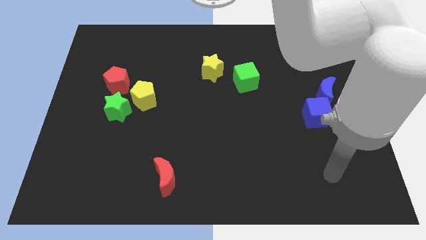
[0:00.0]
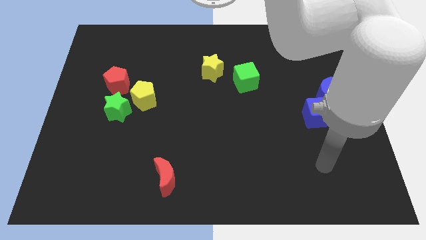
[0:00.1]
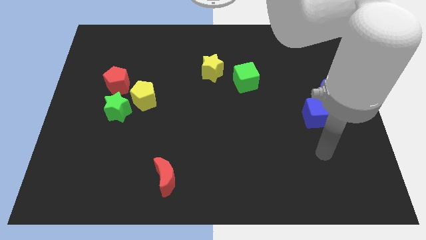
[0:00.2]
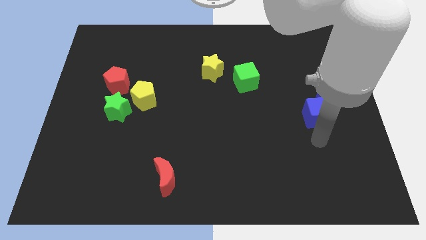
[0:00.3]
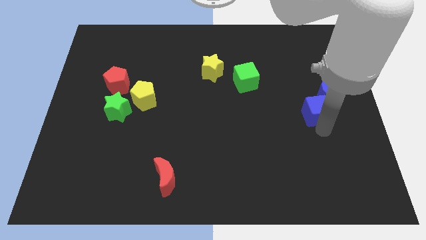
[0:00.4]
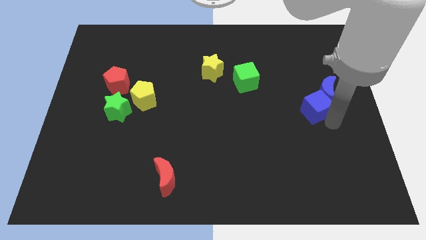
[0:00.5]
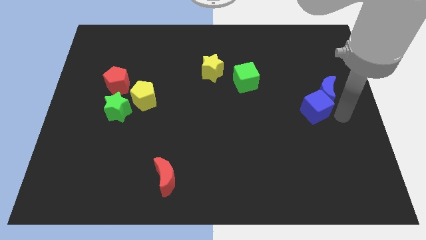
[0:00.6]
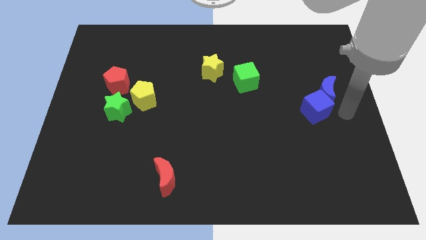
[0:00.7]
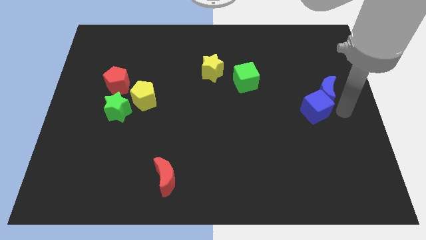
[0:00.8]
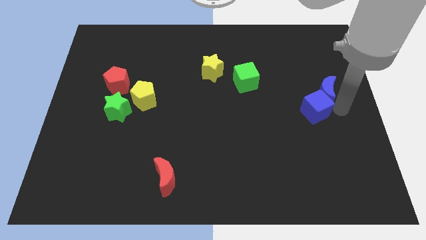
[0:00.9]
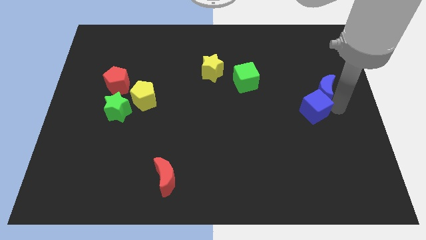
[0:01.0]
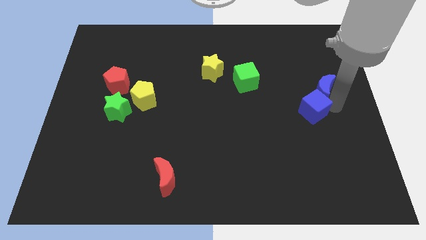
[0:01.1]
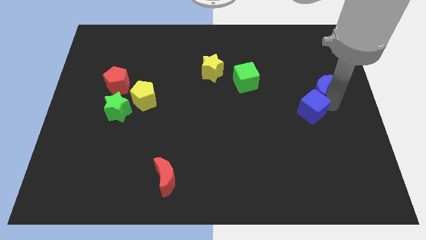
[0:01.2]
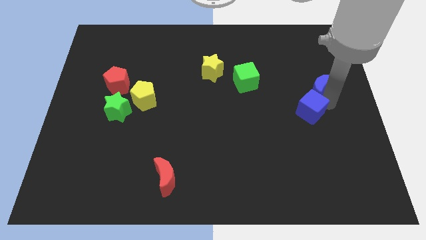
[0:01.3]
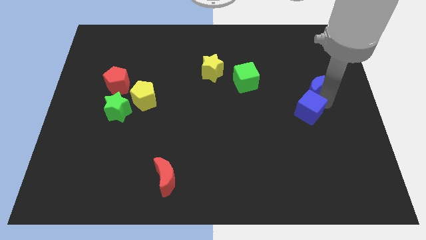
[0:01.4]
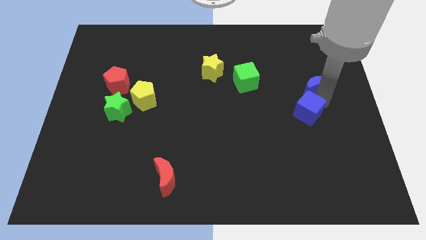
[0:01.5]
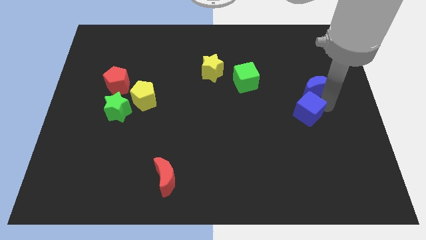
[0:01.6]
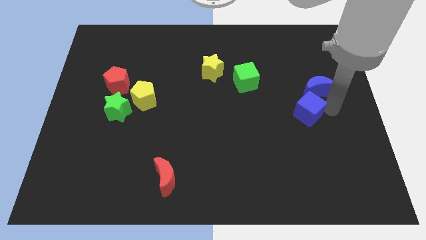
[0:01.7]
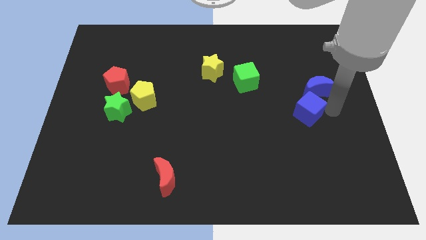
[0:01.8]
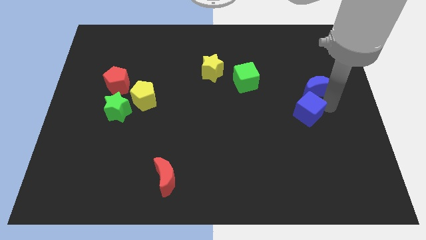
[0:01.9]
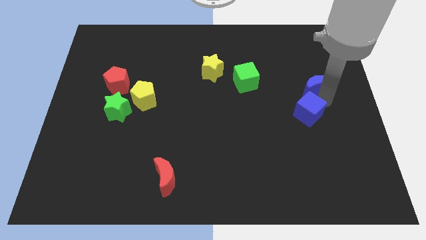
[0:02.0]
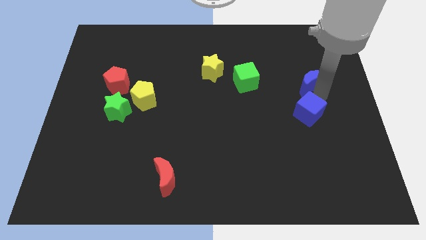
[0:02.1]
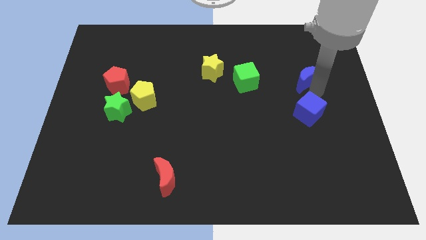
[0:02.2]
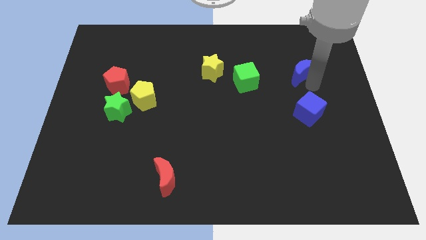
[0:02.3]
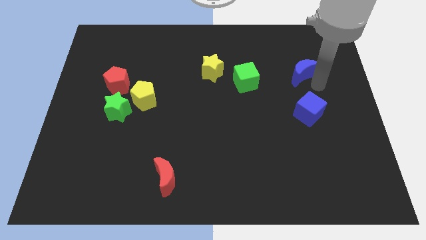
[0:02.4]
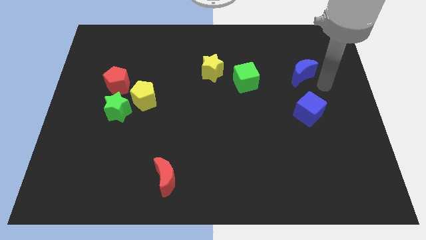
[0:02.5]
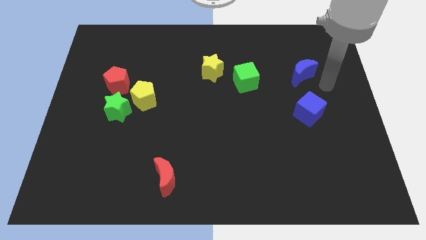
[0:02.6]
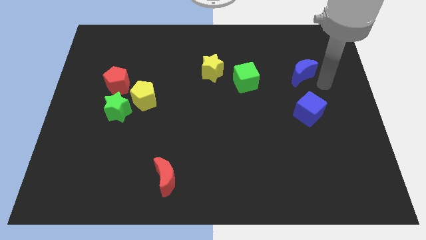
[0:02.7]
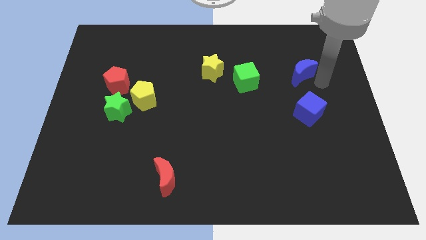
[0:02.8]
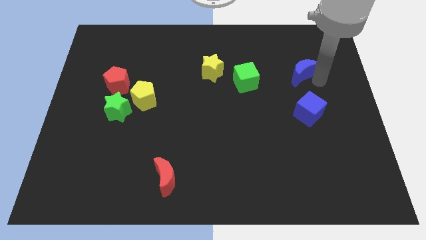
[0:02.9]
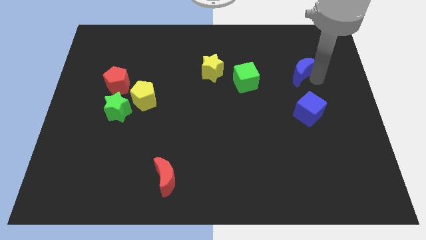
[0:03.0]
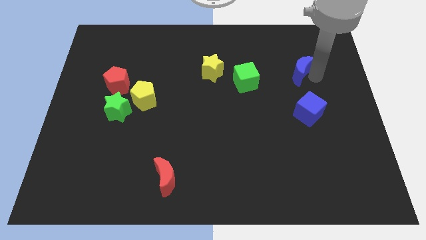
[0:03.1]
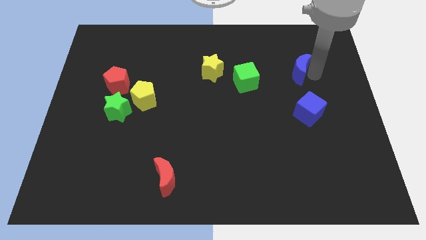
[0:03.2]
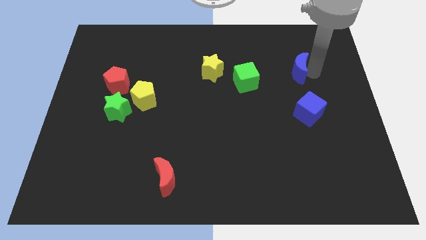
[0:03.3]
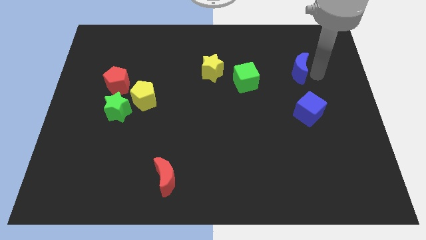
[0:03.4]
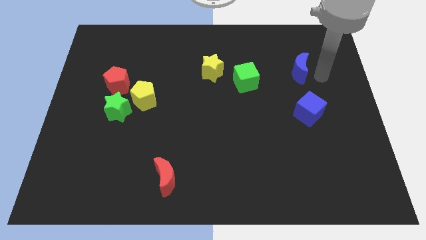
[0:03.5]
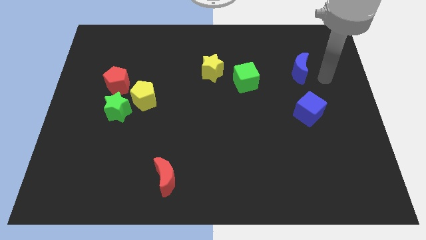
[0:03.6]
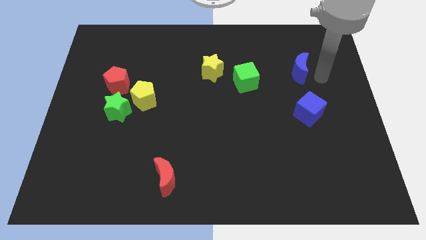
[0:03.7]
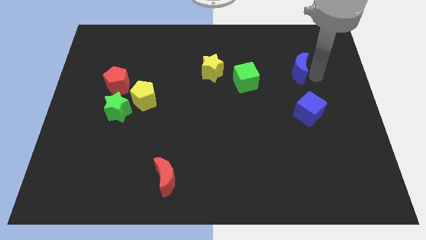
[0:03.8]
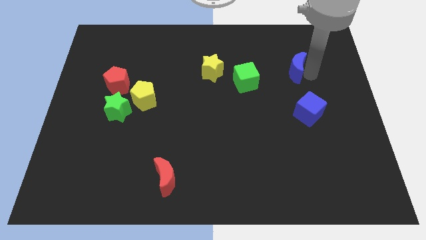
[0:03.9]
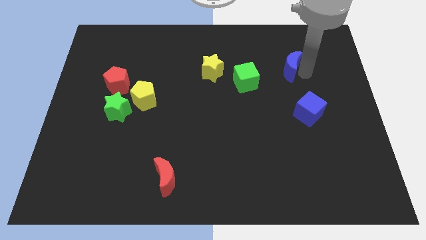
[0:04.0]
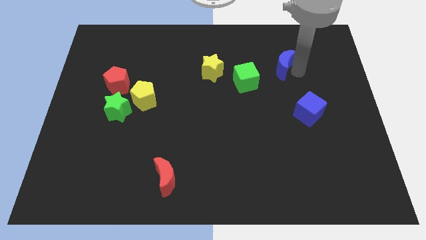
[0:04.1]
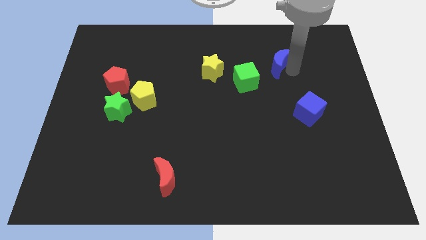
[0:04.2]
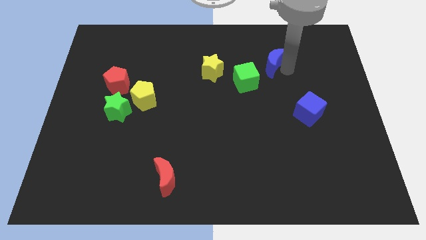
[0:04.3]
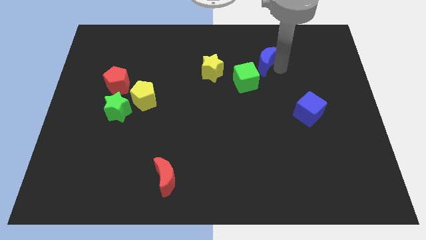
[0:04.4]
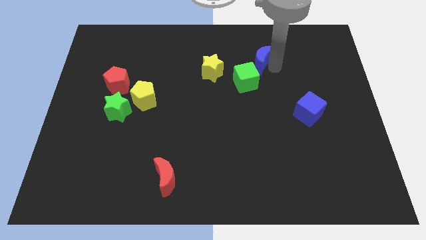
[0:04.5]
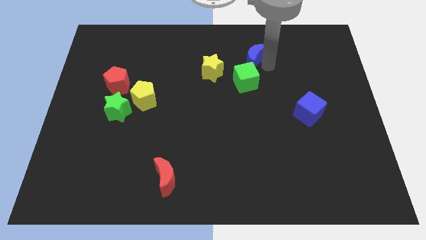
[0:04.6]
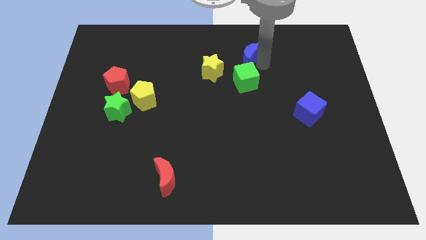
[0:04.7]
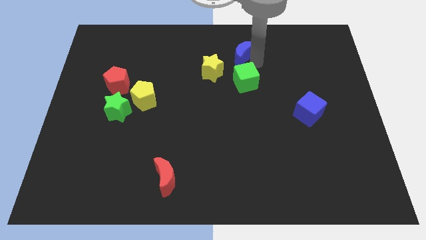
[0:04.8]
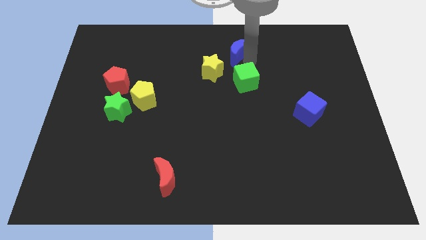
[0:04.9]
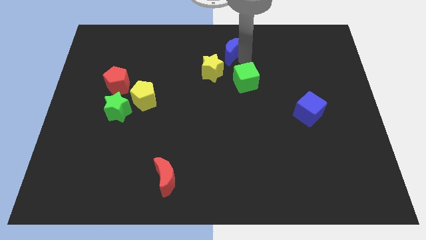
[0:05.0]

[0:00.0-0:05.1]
push the blue moon to the top side

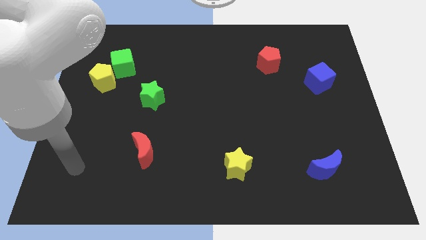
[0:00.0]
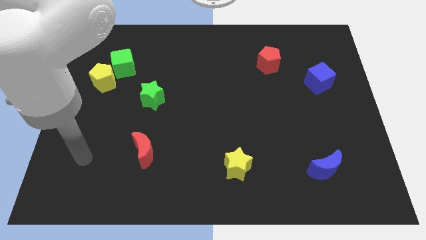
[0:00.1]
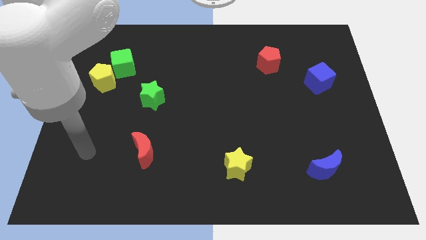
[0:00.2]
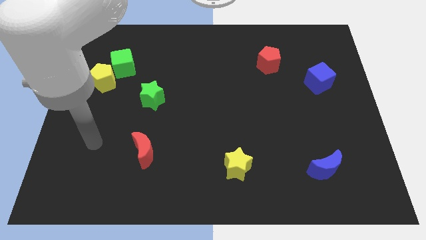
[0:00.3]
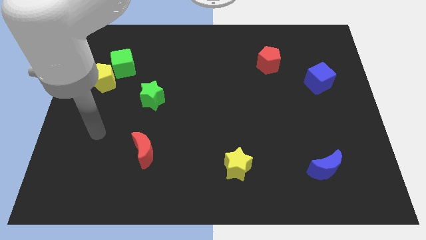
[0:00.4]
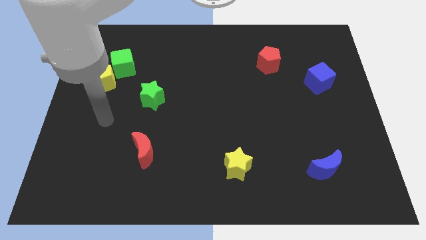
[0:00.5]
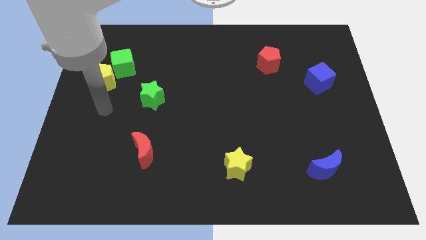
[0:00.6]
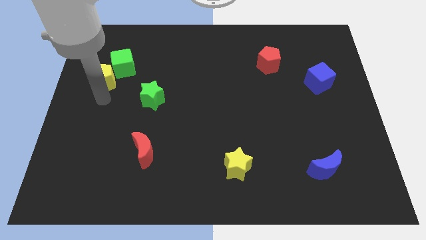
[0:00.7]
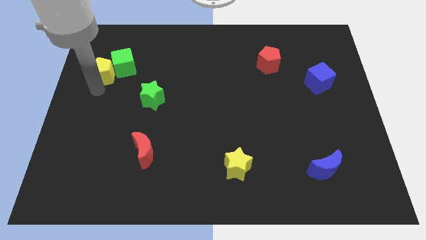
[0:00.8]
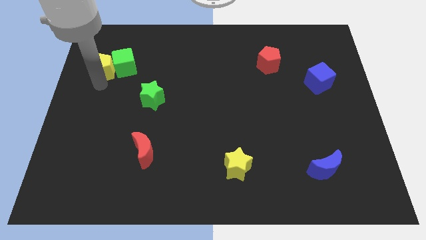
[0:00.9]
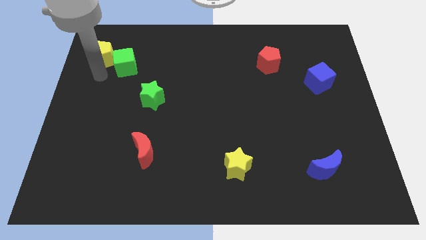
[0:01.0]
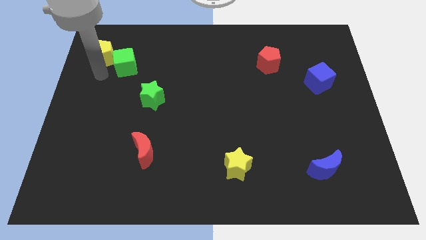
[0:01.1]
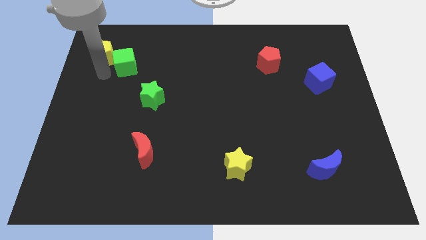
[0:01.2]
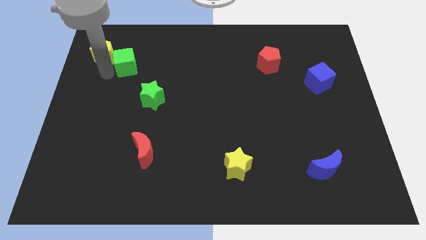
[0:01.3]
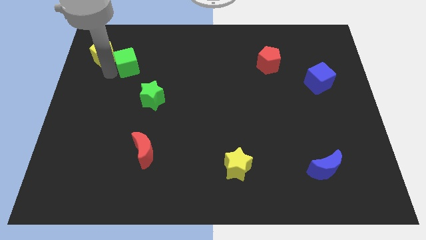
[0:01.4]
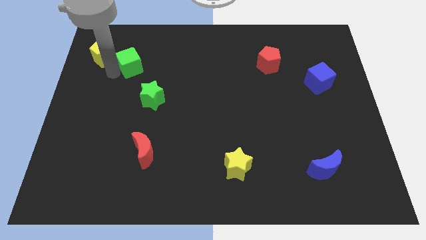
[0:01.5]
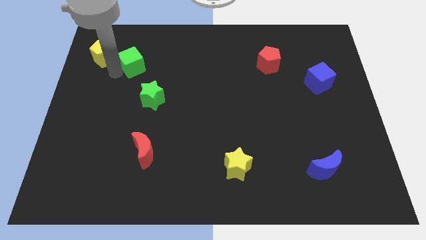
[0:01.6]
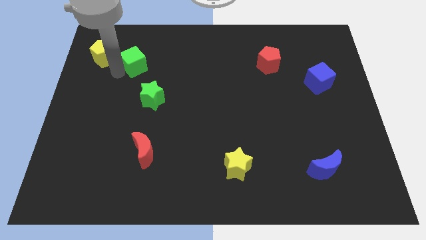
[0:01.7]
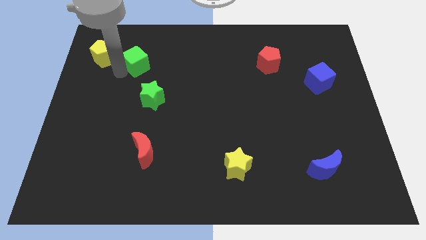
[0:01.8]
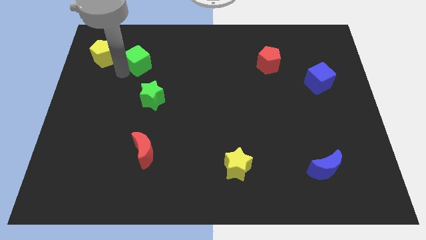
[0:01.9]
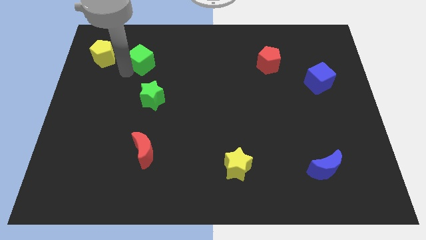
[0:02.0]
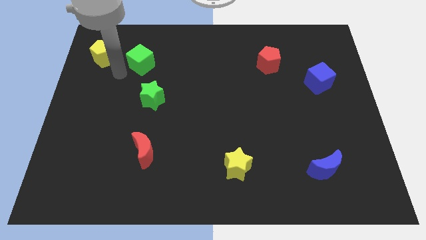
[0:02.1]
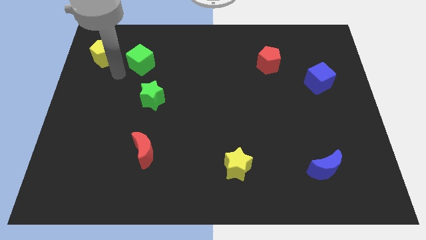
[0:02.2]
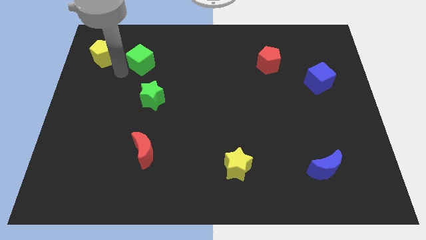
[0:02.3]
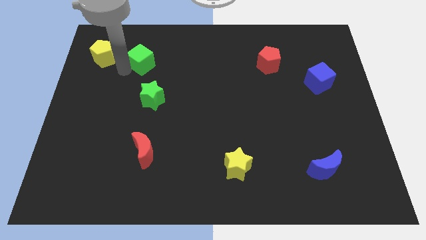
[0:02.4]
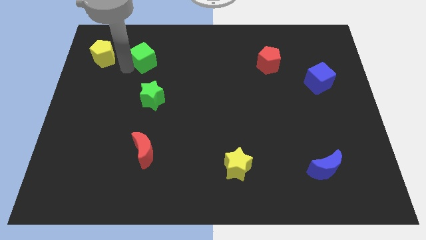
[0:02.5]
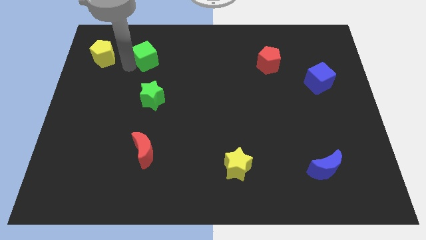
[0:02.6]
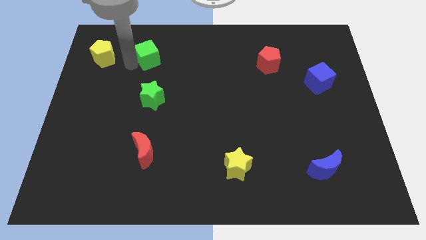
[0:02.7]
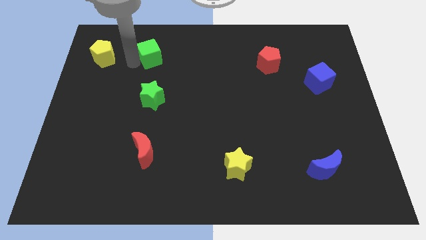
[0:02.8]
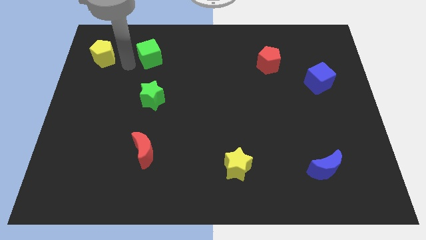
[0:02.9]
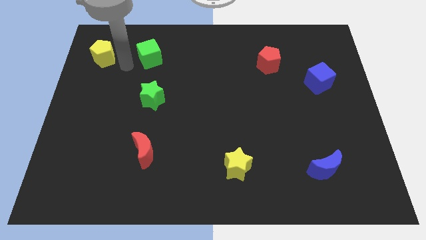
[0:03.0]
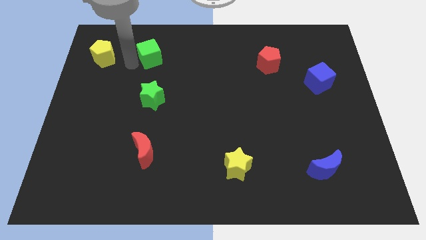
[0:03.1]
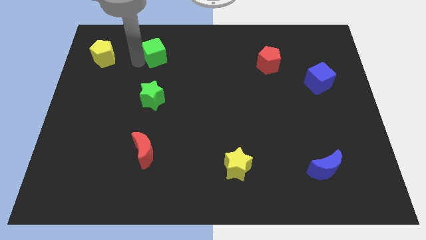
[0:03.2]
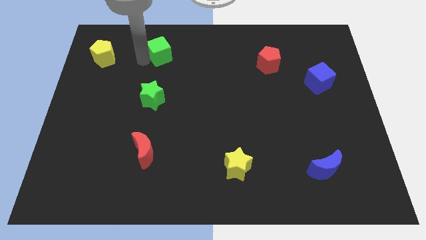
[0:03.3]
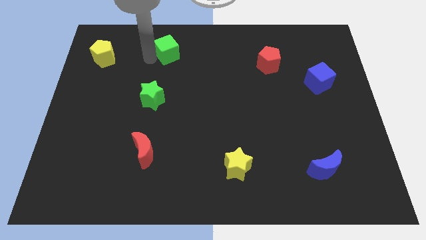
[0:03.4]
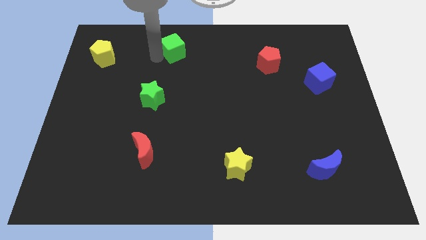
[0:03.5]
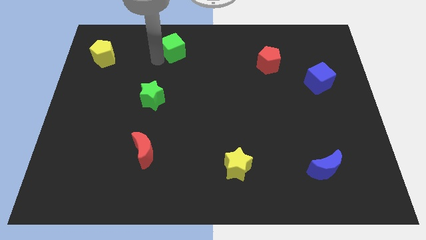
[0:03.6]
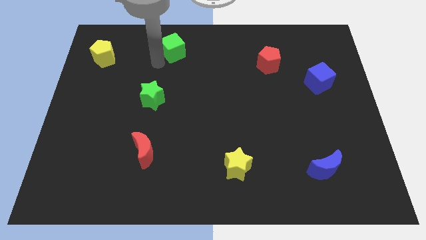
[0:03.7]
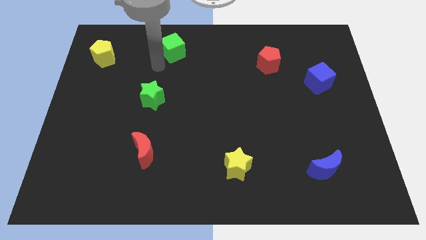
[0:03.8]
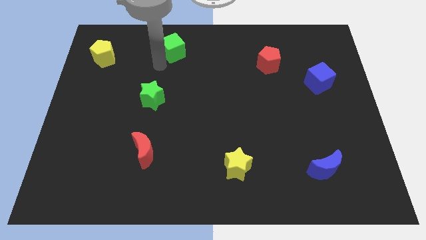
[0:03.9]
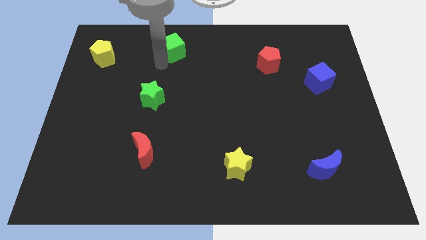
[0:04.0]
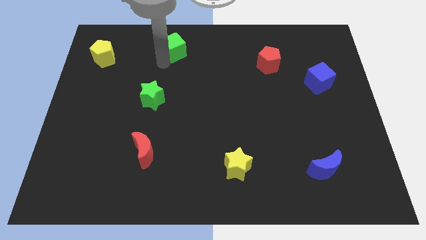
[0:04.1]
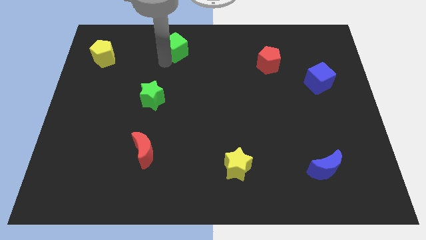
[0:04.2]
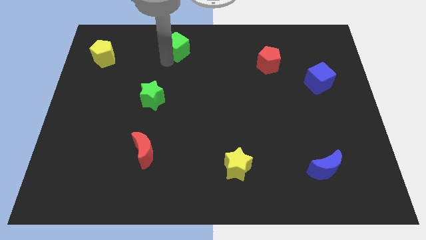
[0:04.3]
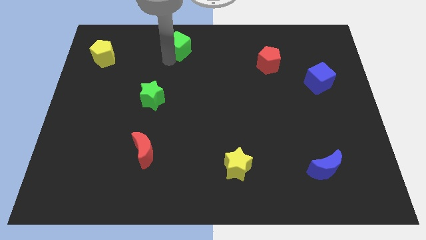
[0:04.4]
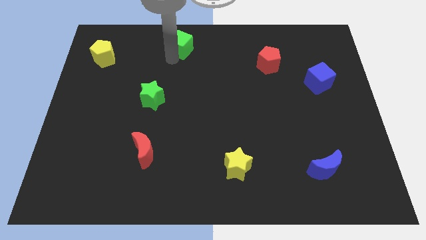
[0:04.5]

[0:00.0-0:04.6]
push the green cube to the top side
